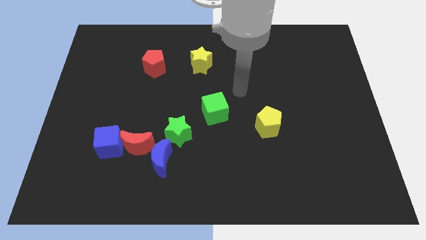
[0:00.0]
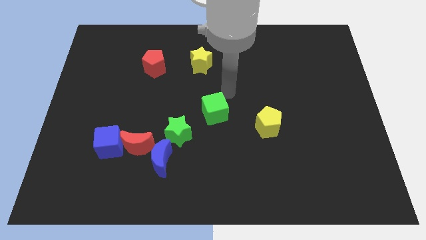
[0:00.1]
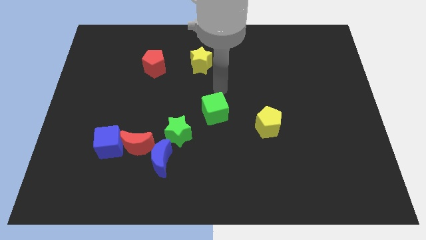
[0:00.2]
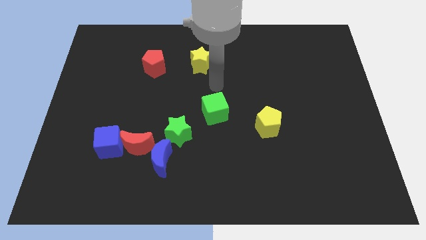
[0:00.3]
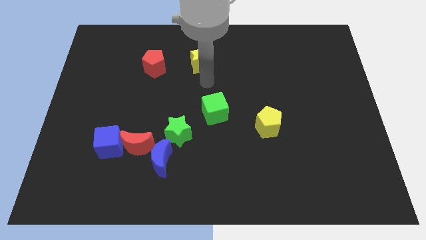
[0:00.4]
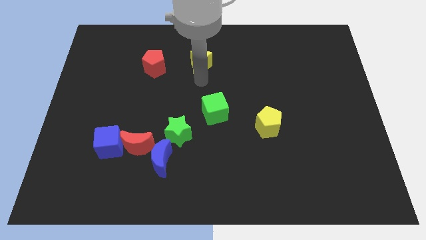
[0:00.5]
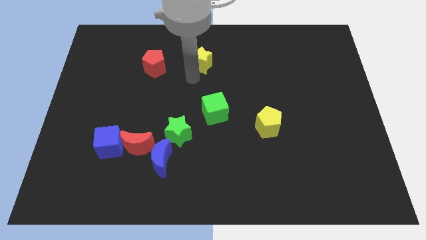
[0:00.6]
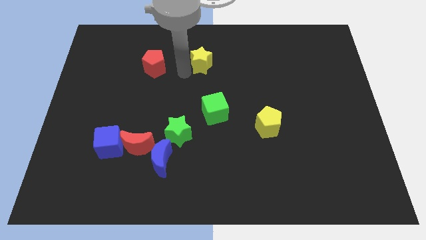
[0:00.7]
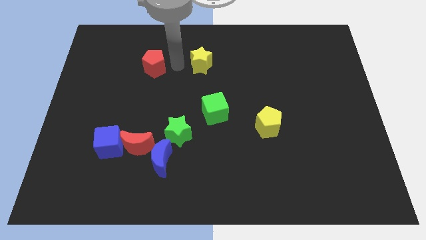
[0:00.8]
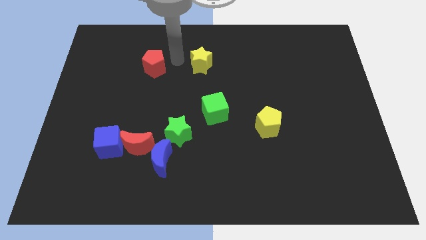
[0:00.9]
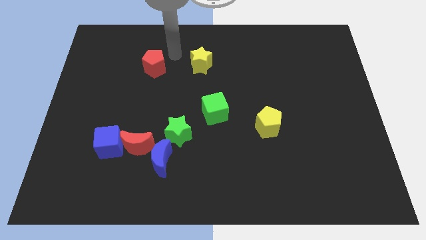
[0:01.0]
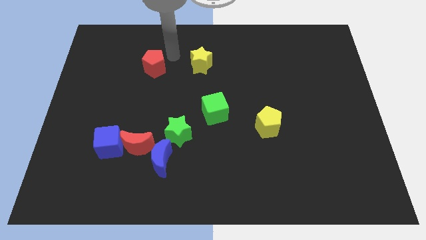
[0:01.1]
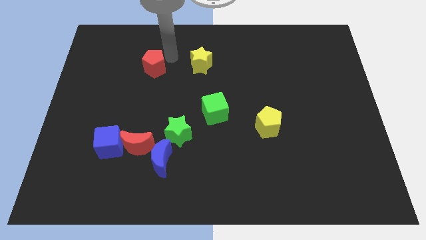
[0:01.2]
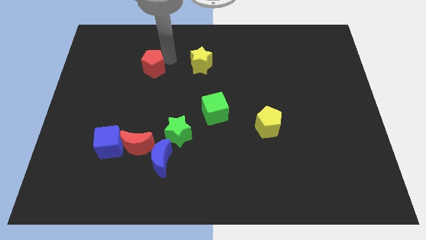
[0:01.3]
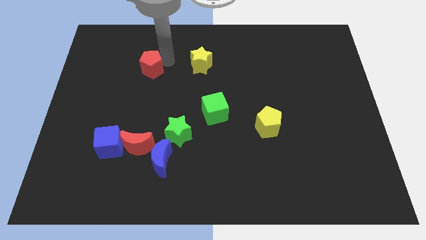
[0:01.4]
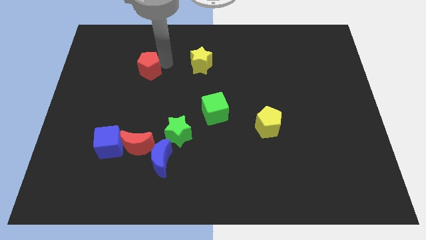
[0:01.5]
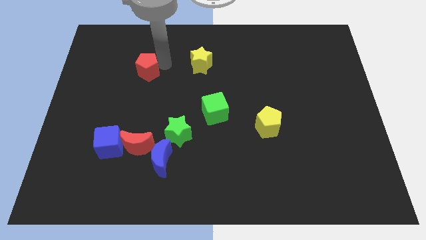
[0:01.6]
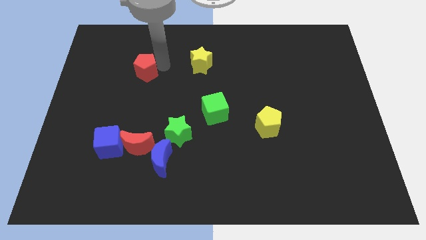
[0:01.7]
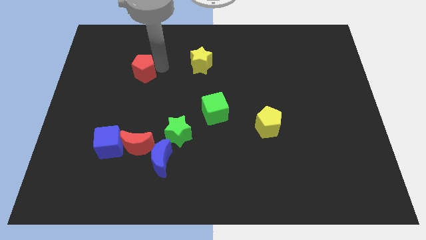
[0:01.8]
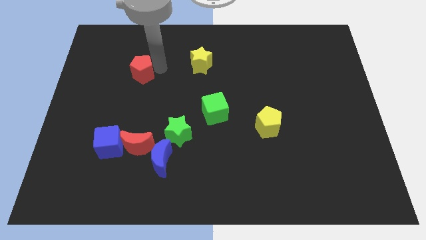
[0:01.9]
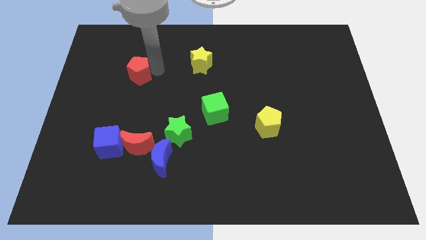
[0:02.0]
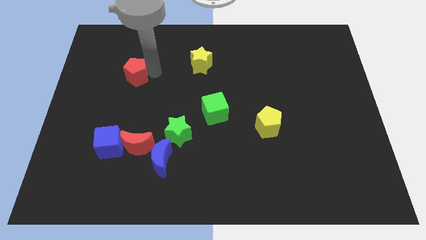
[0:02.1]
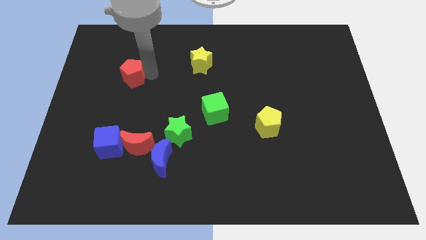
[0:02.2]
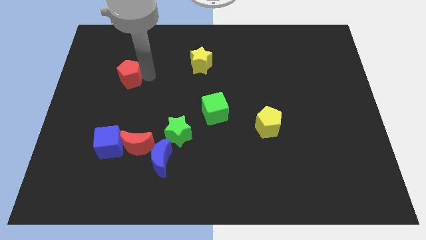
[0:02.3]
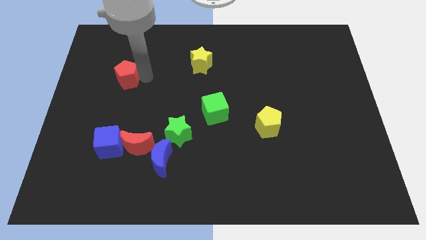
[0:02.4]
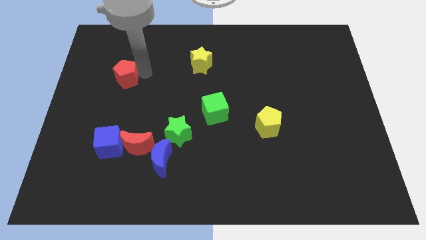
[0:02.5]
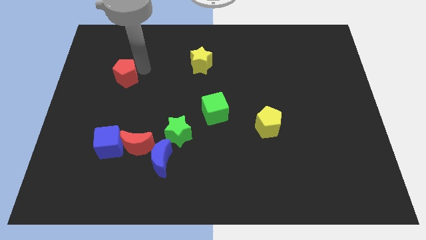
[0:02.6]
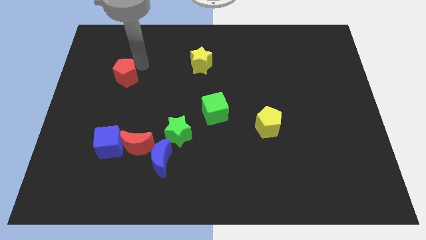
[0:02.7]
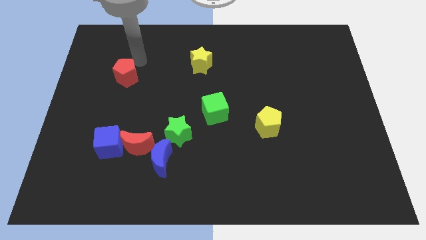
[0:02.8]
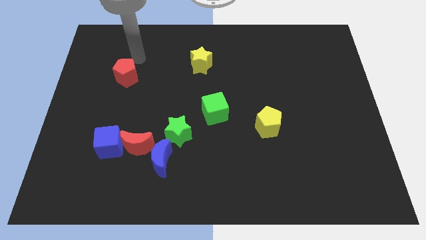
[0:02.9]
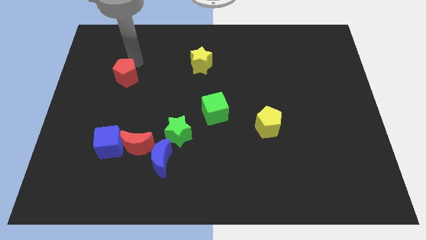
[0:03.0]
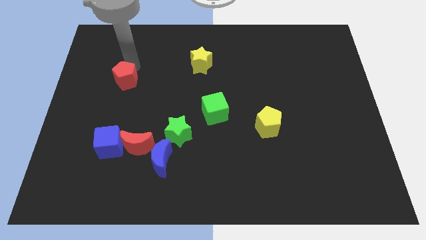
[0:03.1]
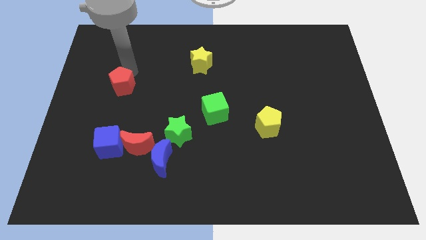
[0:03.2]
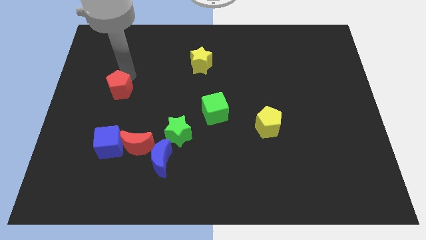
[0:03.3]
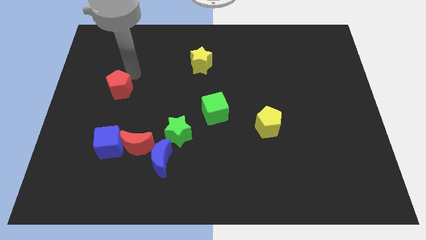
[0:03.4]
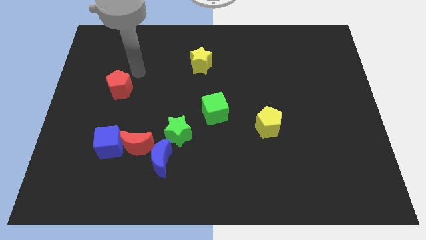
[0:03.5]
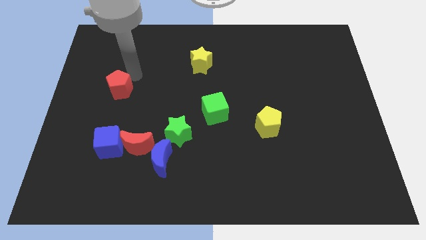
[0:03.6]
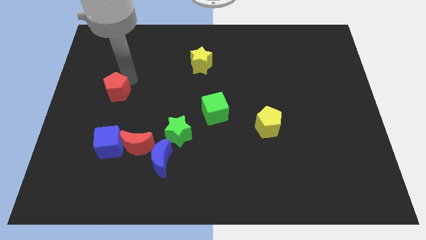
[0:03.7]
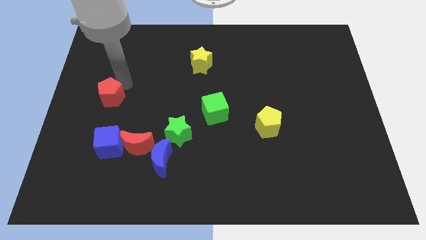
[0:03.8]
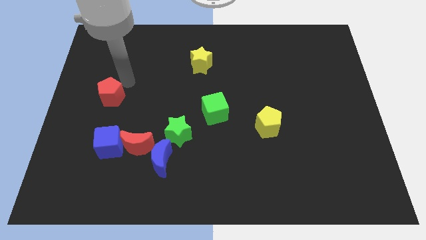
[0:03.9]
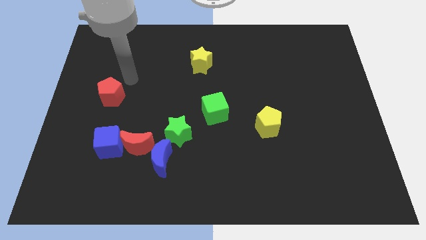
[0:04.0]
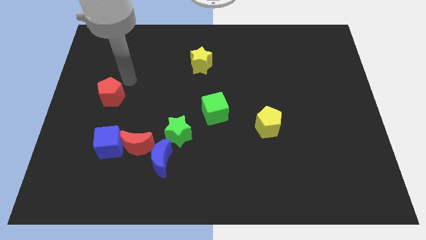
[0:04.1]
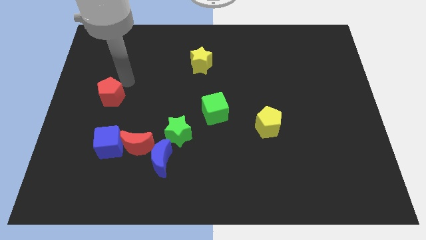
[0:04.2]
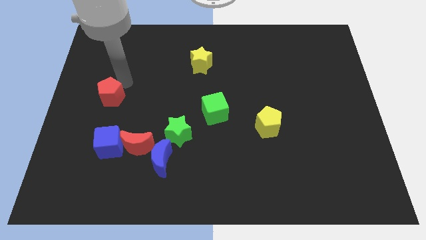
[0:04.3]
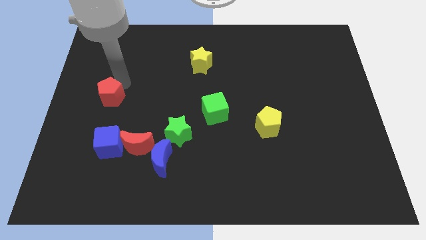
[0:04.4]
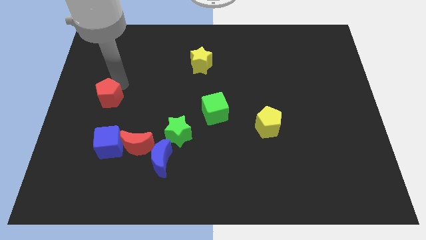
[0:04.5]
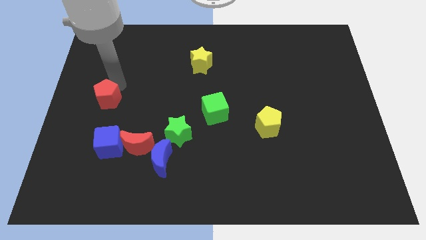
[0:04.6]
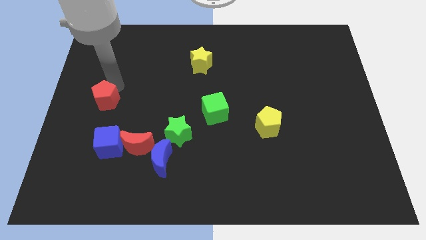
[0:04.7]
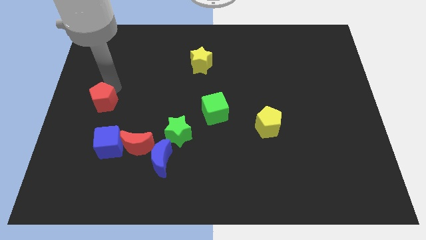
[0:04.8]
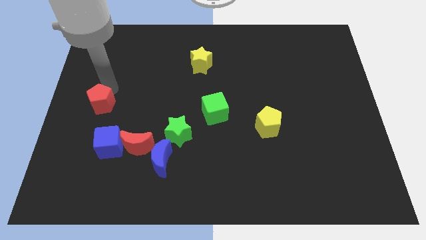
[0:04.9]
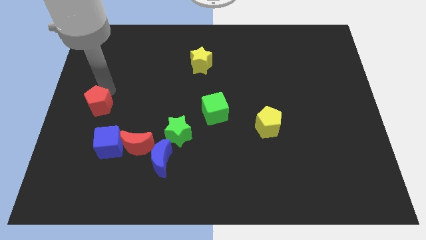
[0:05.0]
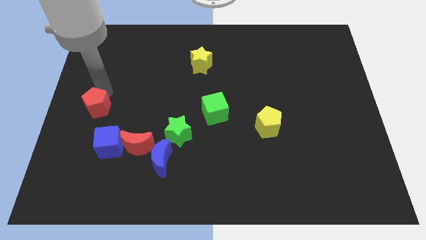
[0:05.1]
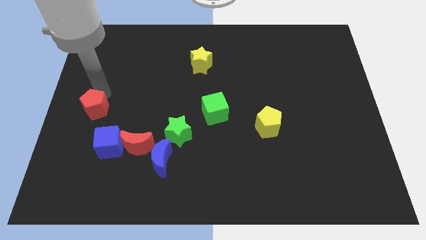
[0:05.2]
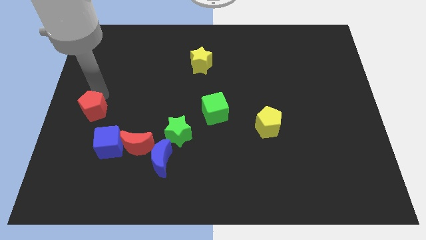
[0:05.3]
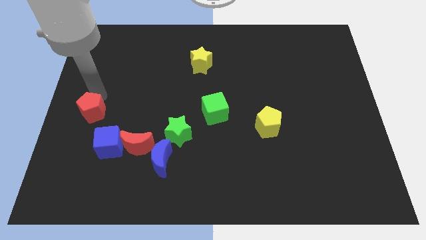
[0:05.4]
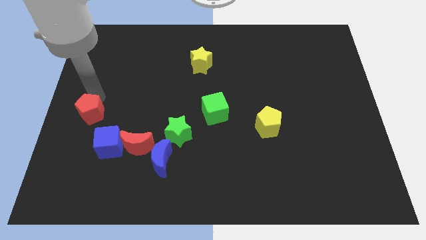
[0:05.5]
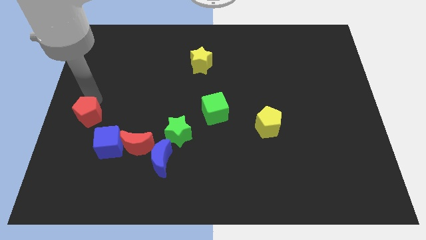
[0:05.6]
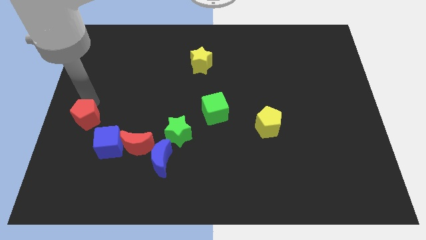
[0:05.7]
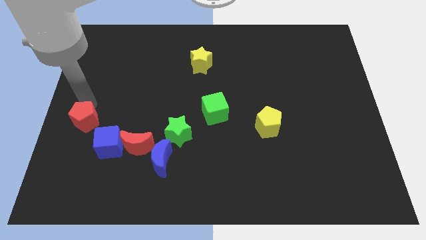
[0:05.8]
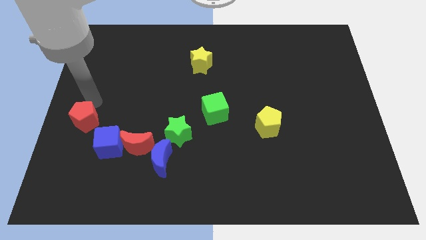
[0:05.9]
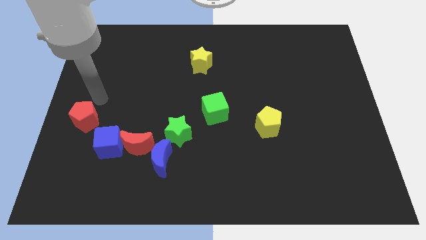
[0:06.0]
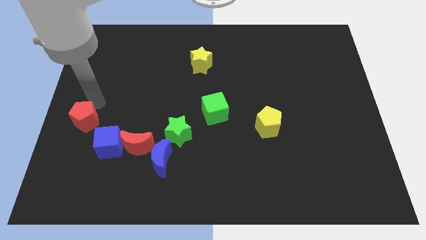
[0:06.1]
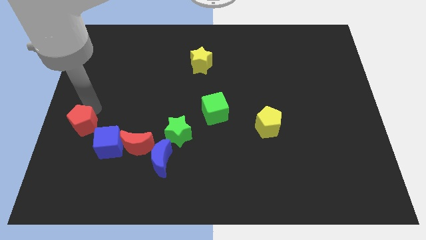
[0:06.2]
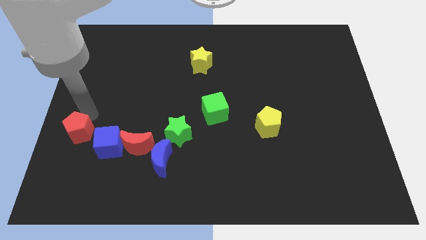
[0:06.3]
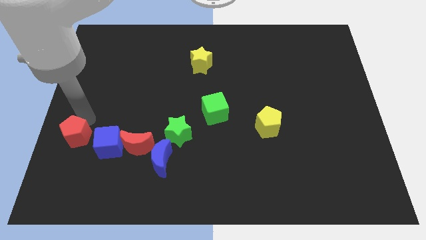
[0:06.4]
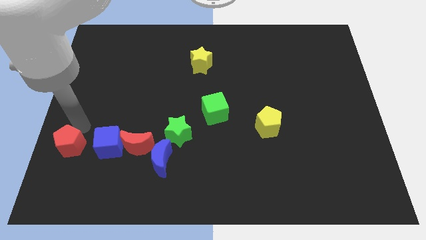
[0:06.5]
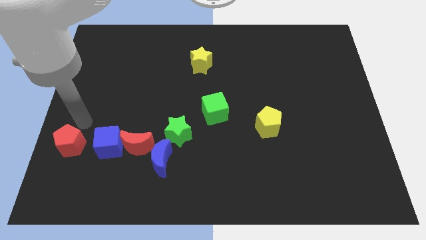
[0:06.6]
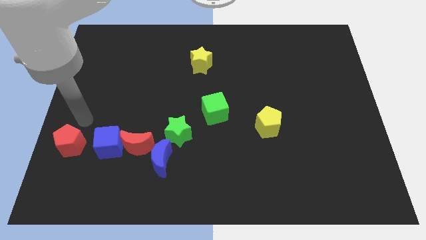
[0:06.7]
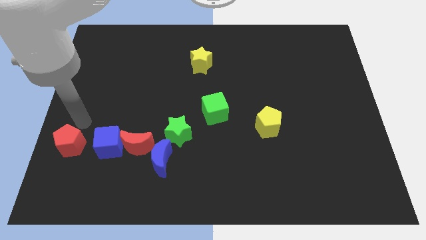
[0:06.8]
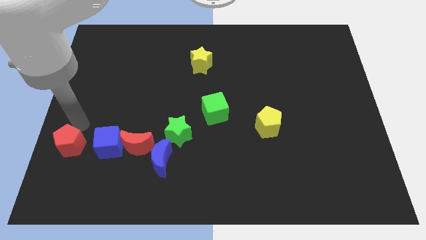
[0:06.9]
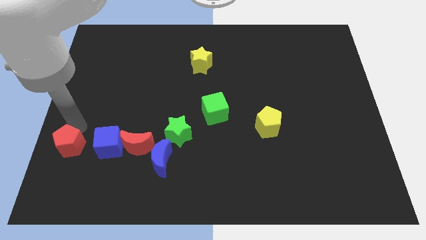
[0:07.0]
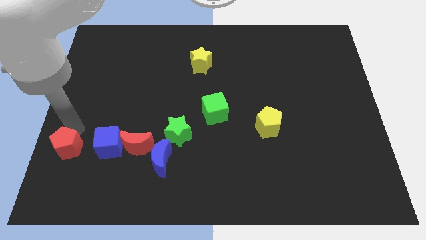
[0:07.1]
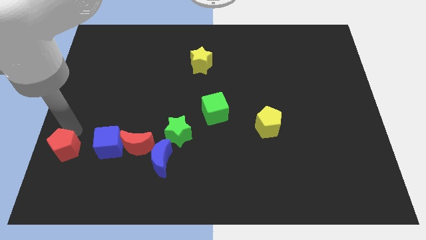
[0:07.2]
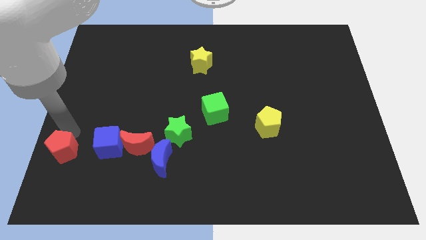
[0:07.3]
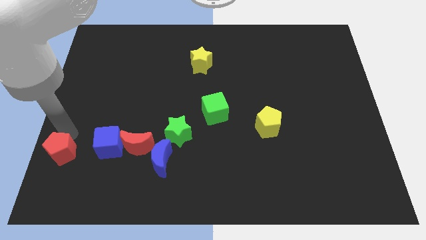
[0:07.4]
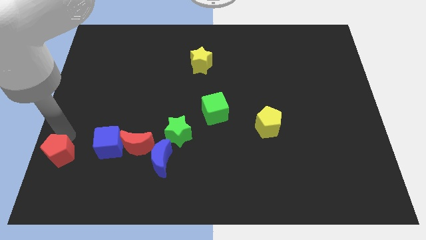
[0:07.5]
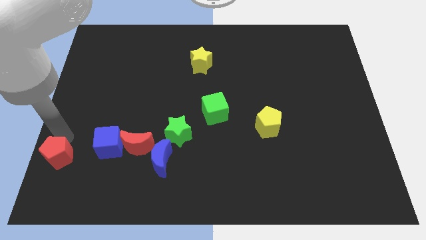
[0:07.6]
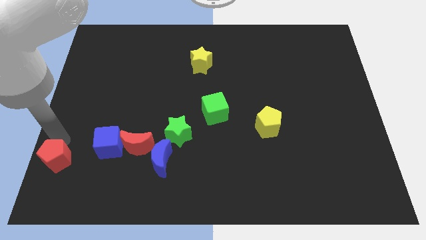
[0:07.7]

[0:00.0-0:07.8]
put the red pentagon to the bottom left
